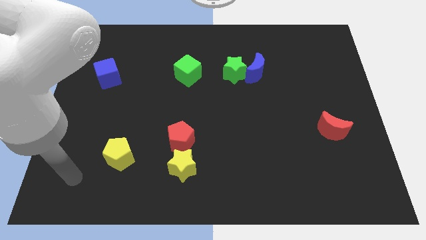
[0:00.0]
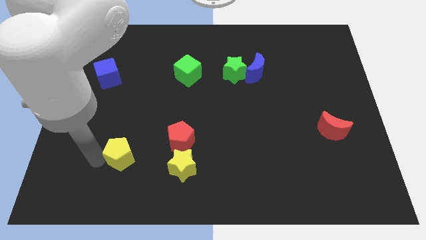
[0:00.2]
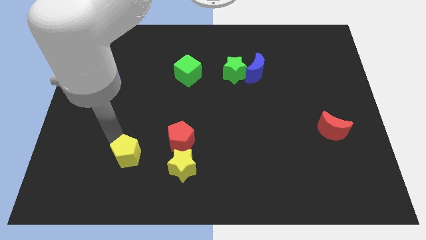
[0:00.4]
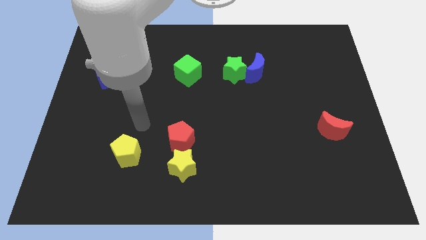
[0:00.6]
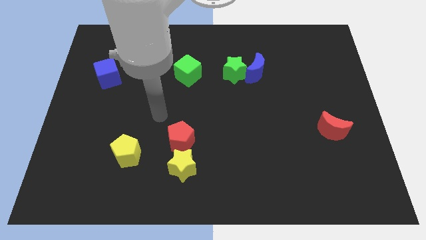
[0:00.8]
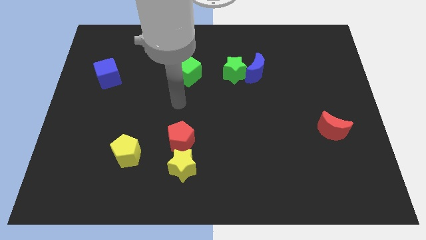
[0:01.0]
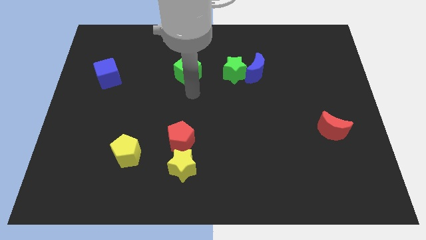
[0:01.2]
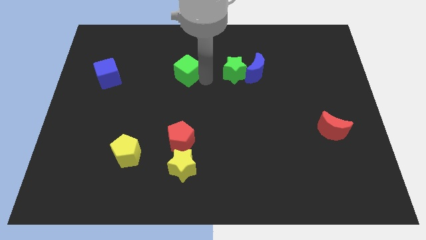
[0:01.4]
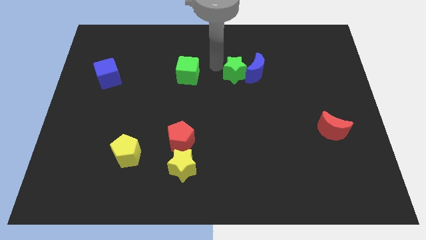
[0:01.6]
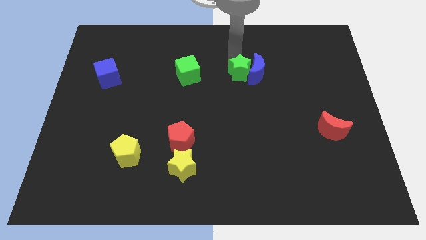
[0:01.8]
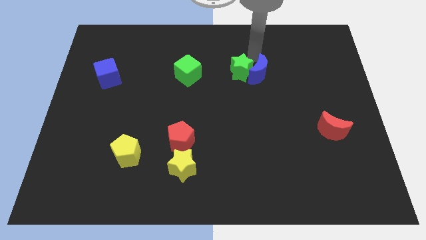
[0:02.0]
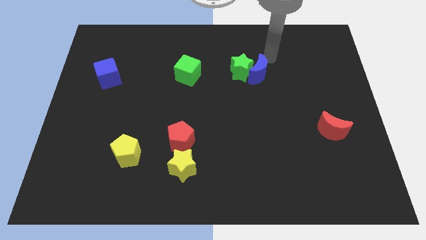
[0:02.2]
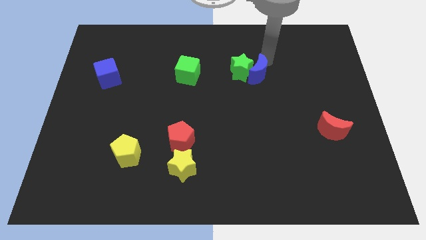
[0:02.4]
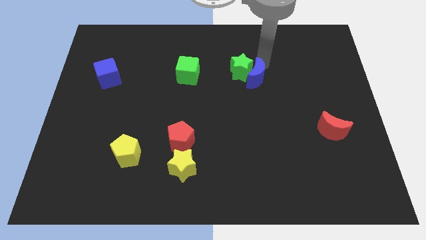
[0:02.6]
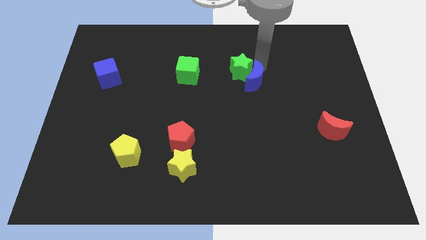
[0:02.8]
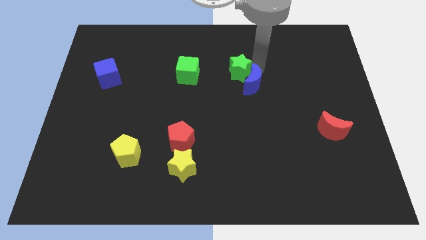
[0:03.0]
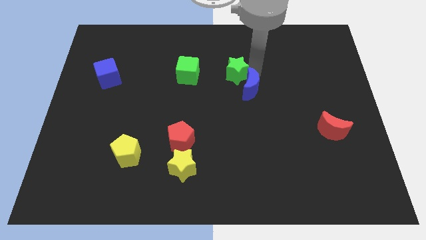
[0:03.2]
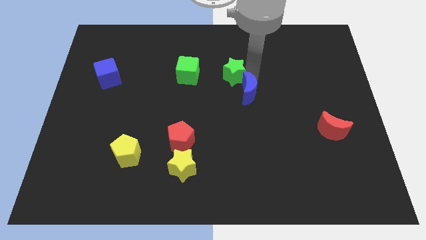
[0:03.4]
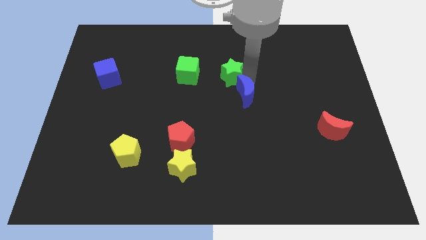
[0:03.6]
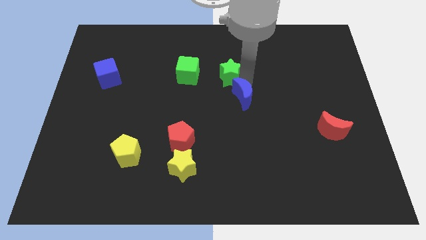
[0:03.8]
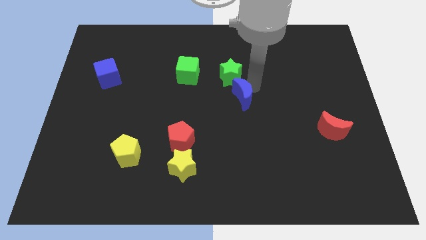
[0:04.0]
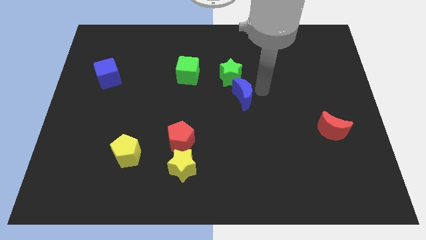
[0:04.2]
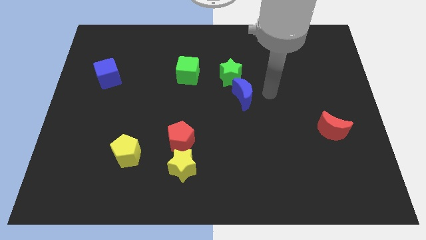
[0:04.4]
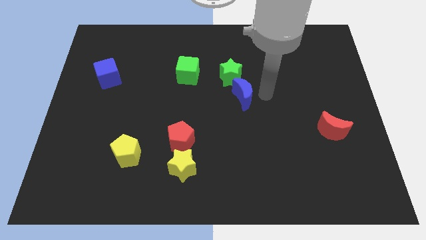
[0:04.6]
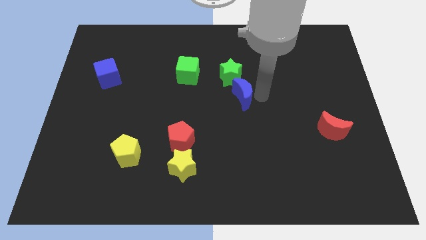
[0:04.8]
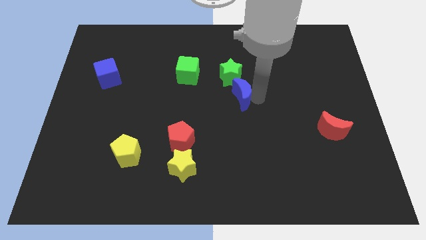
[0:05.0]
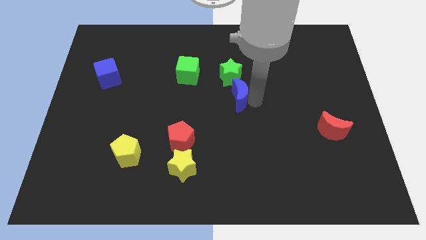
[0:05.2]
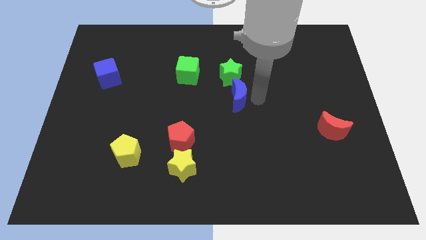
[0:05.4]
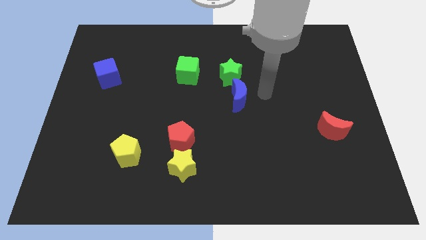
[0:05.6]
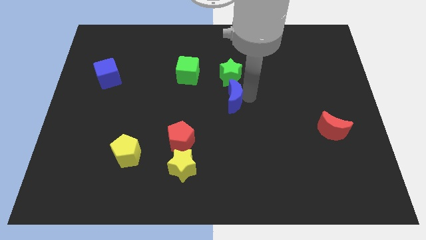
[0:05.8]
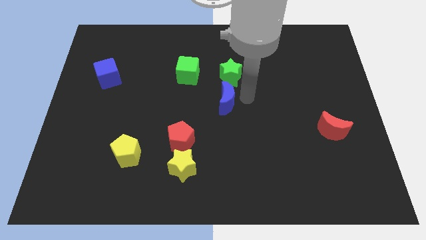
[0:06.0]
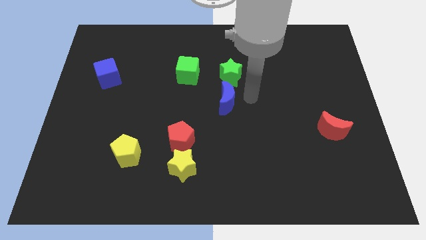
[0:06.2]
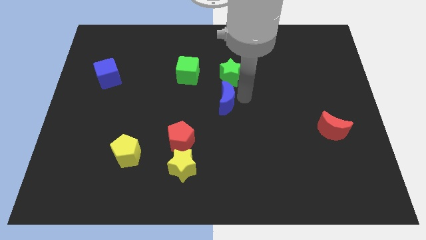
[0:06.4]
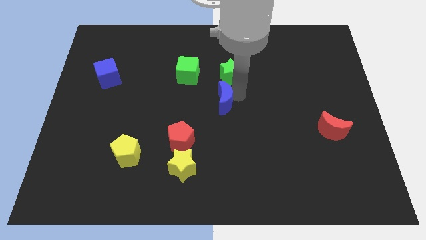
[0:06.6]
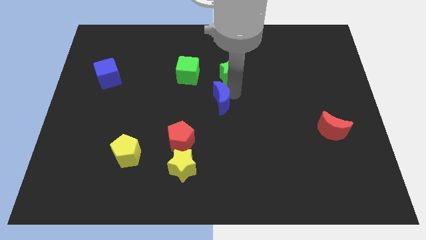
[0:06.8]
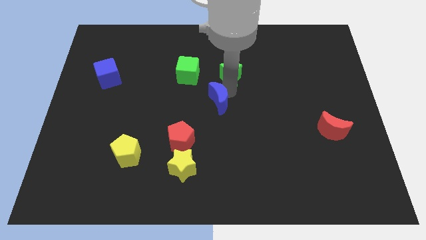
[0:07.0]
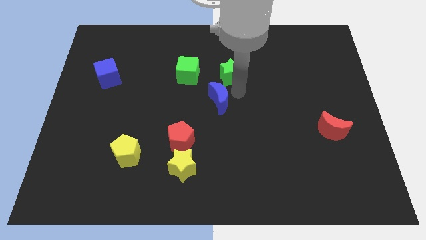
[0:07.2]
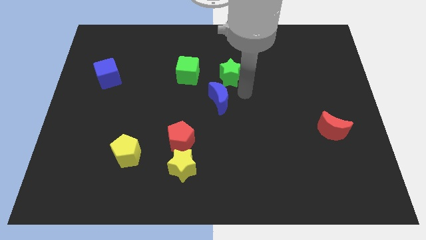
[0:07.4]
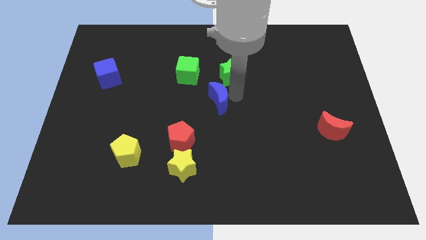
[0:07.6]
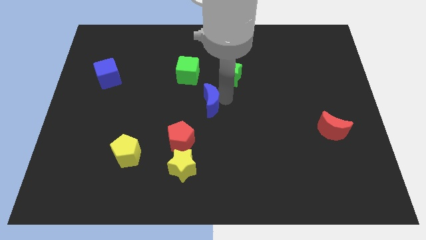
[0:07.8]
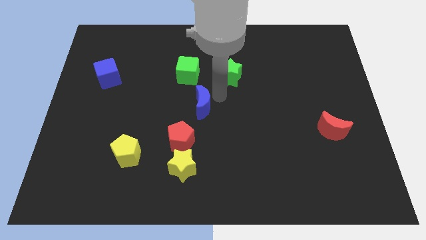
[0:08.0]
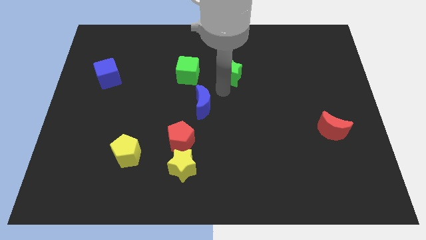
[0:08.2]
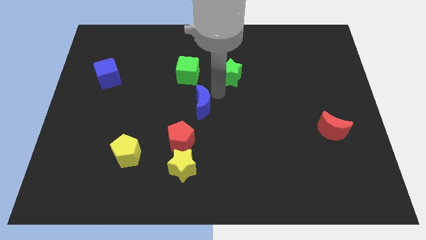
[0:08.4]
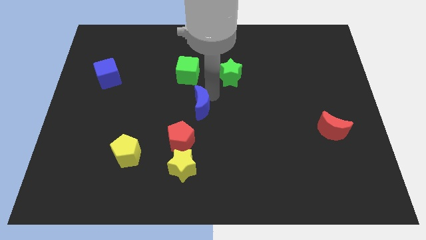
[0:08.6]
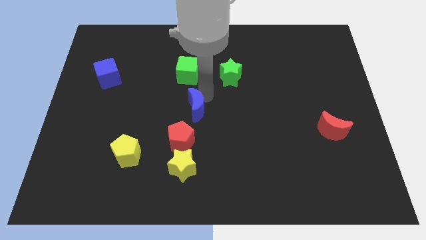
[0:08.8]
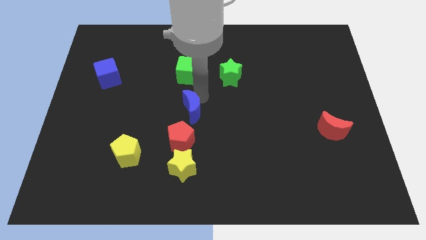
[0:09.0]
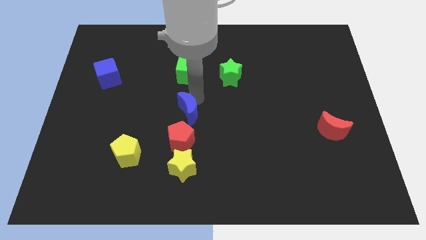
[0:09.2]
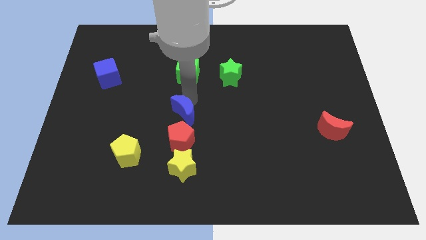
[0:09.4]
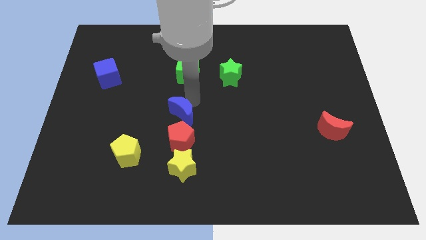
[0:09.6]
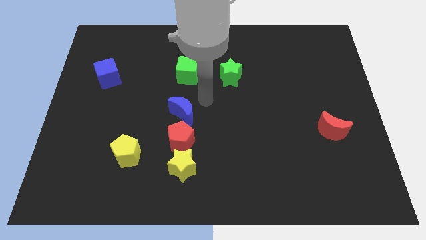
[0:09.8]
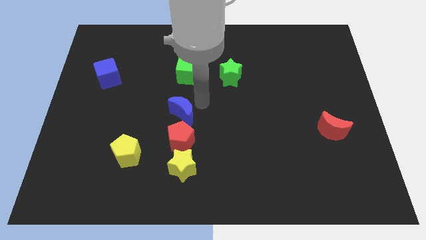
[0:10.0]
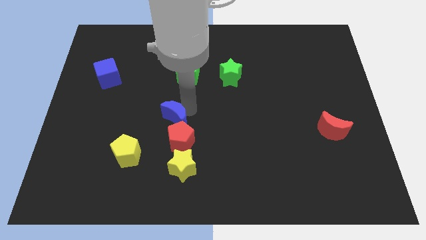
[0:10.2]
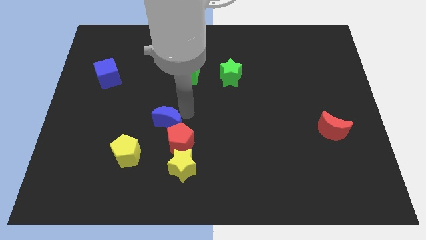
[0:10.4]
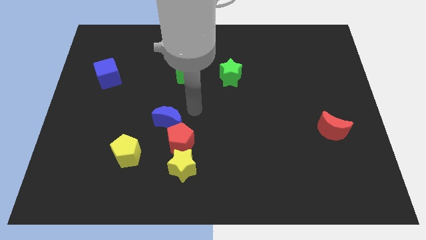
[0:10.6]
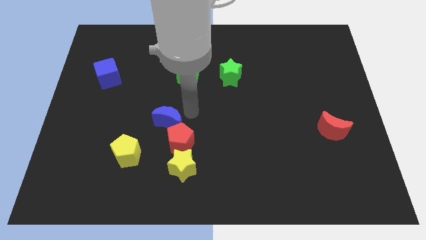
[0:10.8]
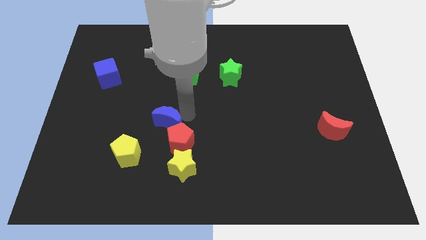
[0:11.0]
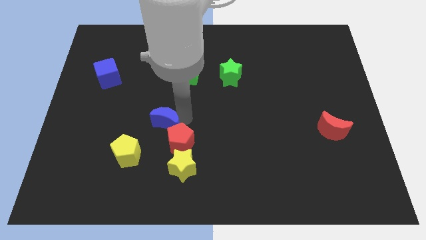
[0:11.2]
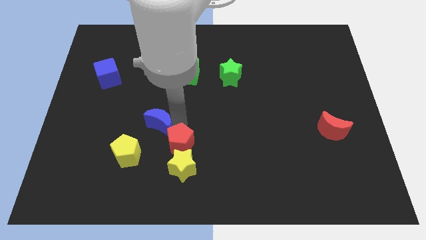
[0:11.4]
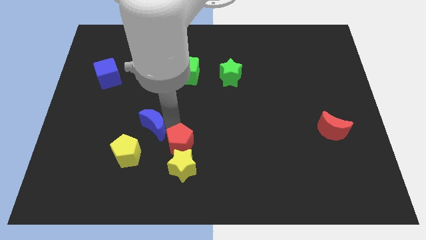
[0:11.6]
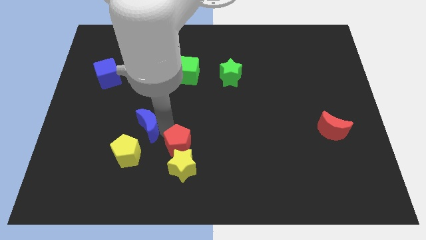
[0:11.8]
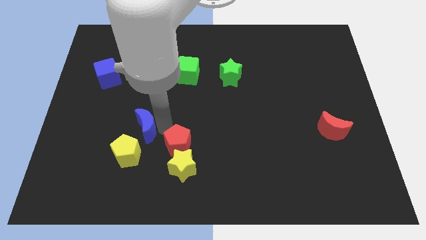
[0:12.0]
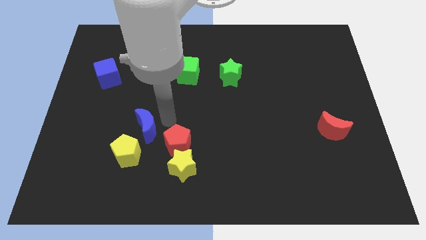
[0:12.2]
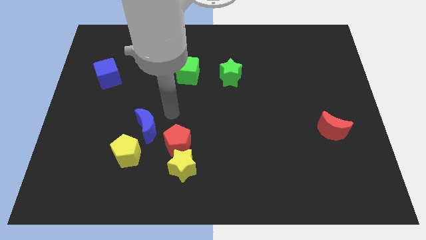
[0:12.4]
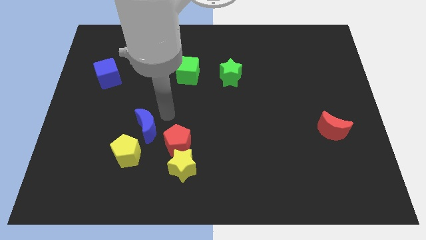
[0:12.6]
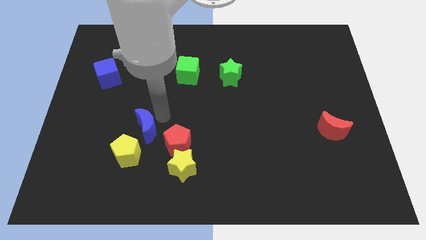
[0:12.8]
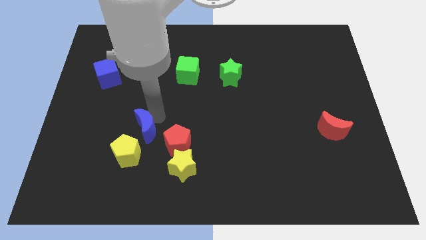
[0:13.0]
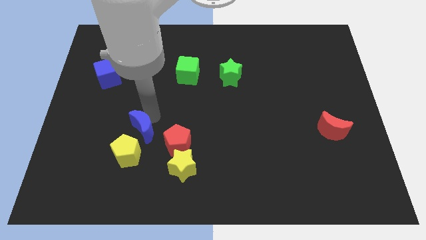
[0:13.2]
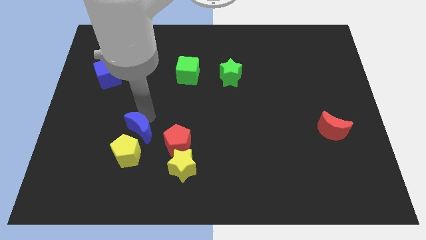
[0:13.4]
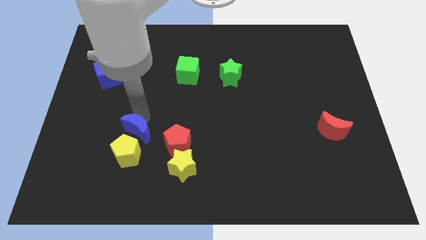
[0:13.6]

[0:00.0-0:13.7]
put the blue moon to the yellow pentagon
